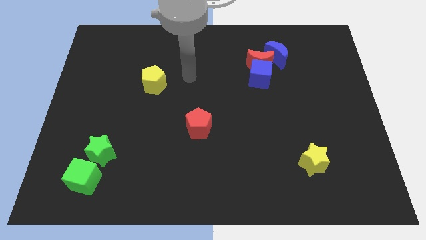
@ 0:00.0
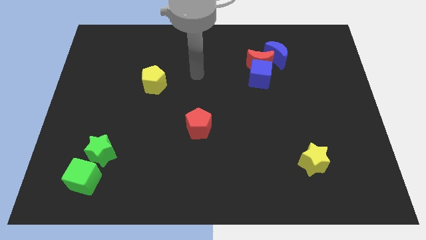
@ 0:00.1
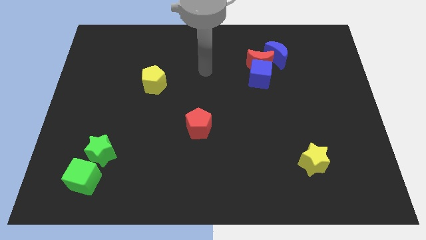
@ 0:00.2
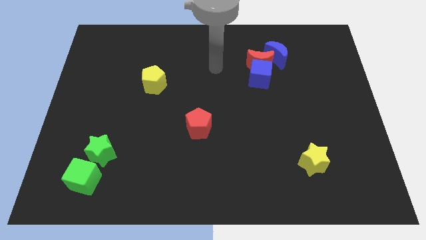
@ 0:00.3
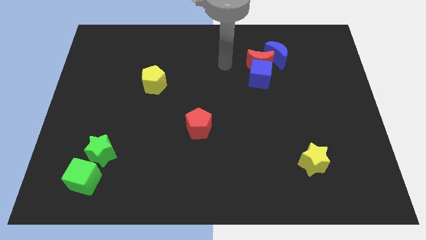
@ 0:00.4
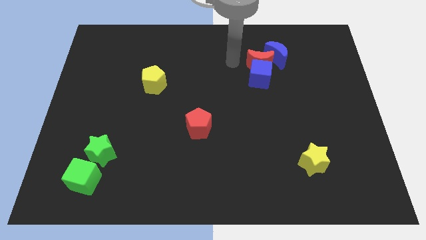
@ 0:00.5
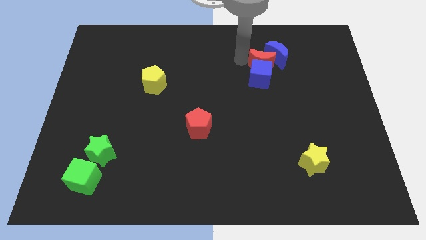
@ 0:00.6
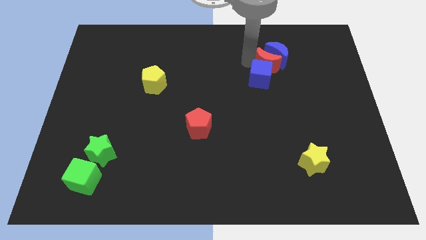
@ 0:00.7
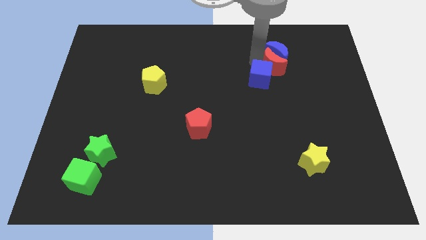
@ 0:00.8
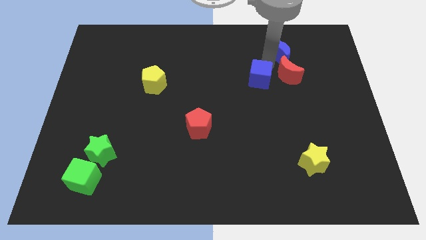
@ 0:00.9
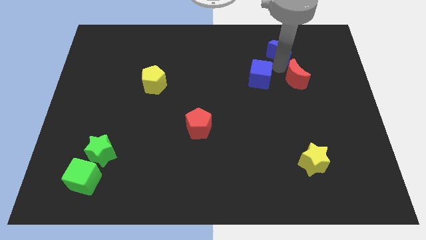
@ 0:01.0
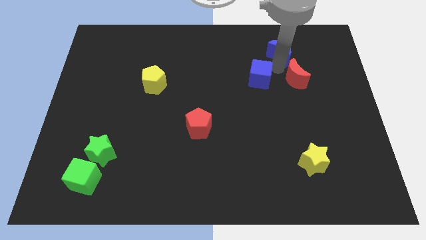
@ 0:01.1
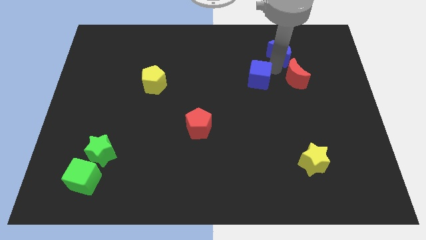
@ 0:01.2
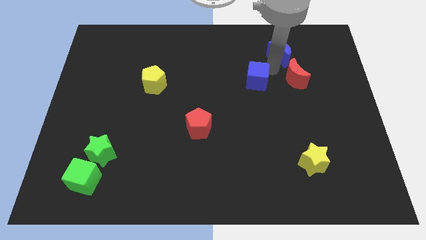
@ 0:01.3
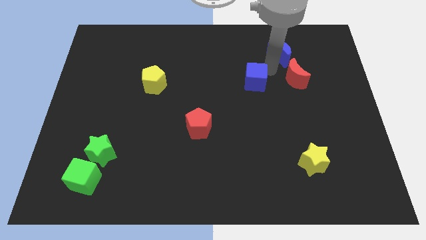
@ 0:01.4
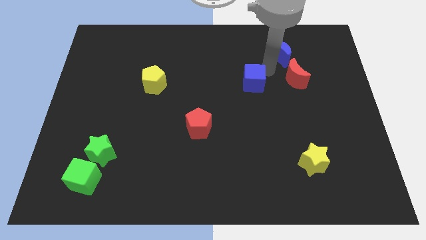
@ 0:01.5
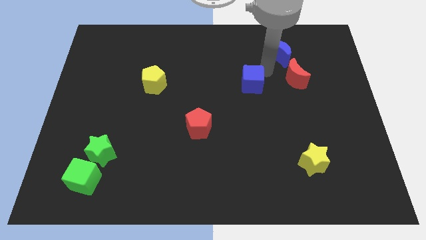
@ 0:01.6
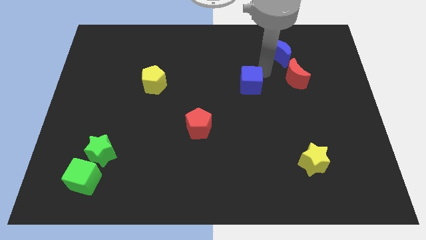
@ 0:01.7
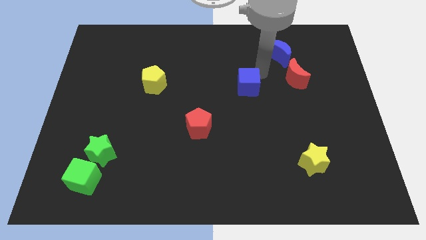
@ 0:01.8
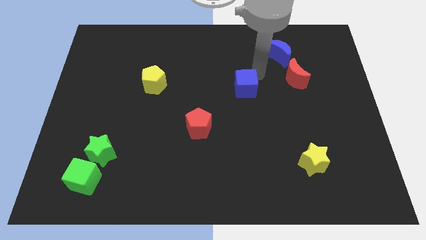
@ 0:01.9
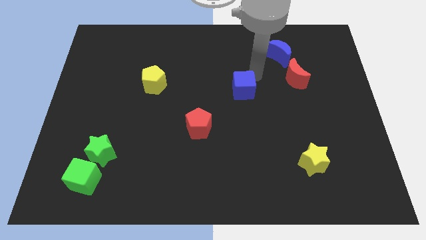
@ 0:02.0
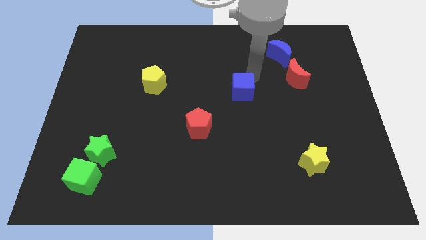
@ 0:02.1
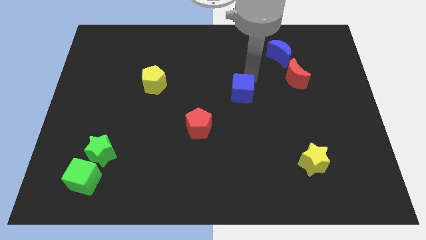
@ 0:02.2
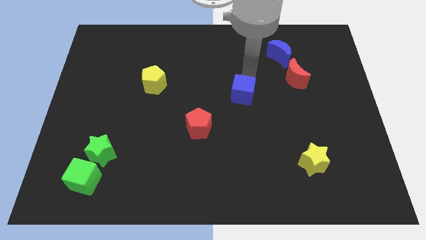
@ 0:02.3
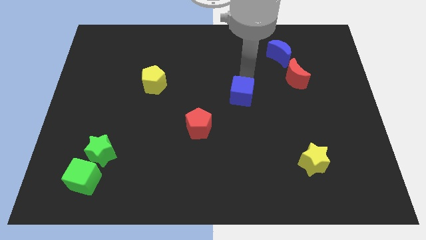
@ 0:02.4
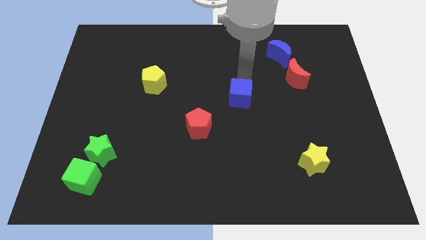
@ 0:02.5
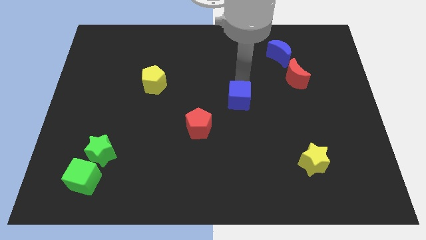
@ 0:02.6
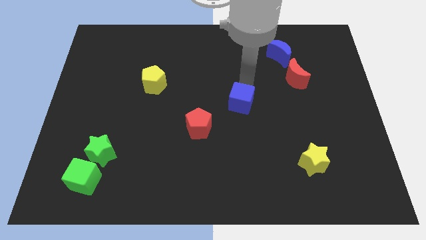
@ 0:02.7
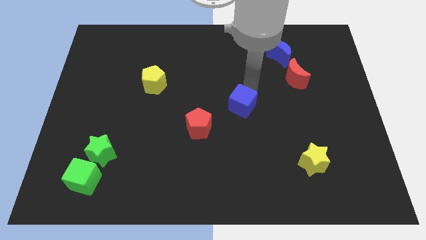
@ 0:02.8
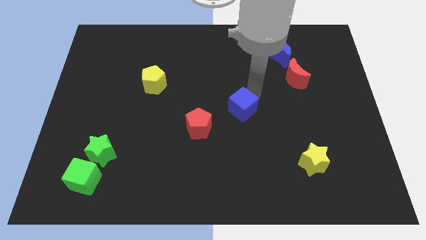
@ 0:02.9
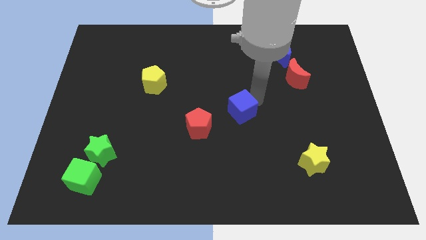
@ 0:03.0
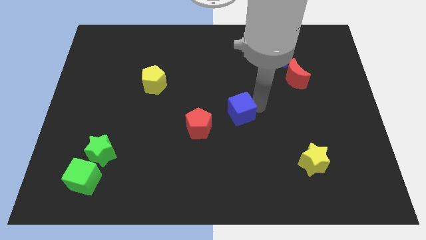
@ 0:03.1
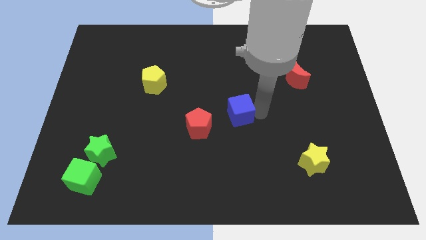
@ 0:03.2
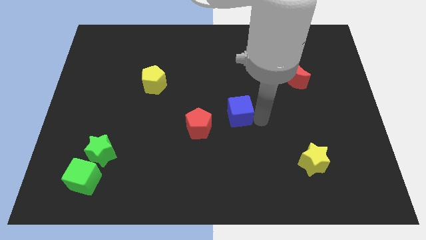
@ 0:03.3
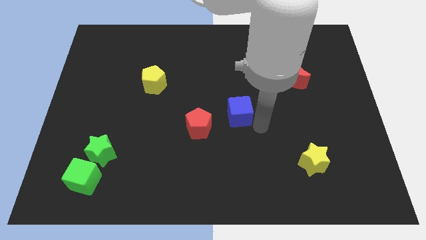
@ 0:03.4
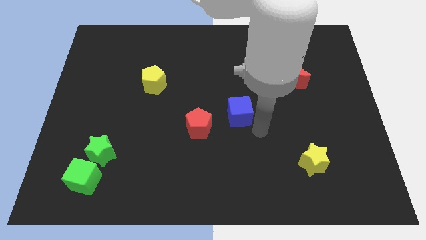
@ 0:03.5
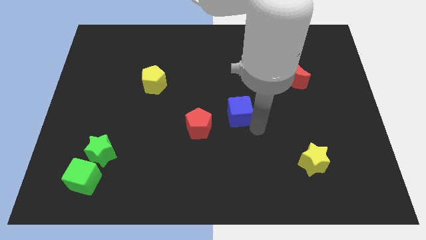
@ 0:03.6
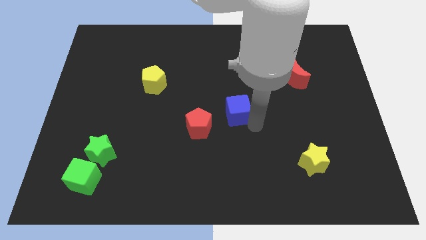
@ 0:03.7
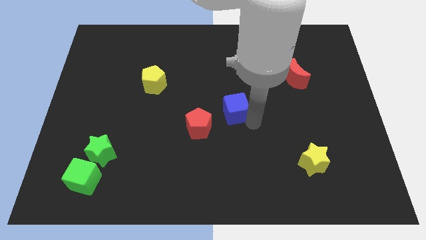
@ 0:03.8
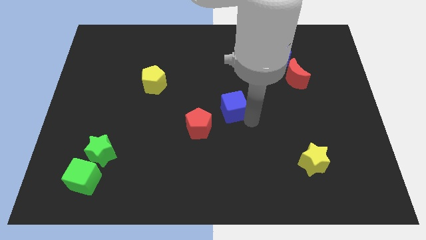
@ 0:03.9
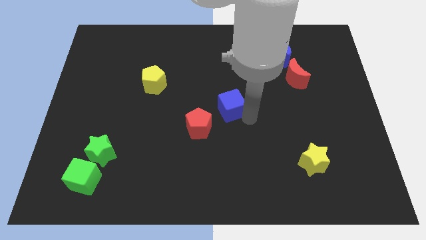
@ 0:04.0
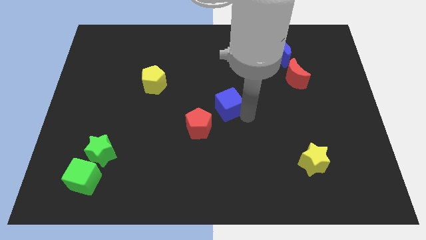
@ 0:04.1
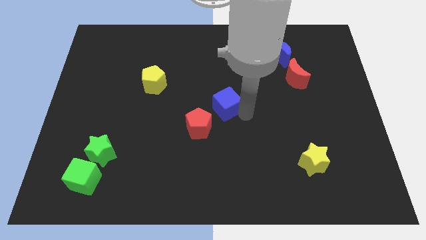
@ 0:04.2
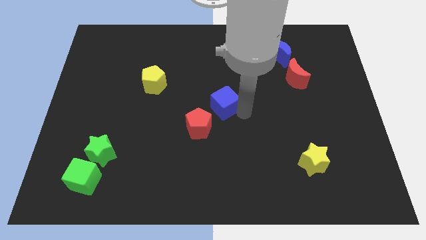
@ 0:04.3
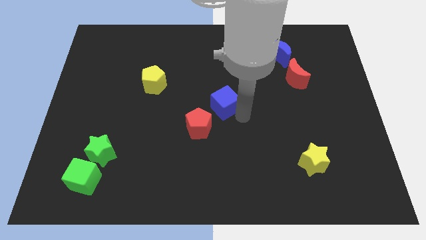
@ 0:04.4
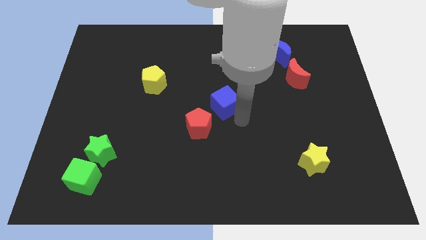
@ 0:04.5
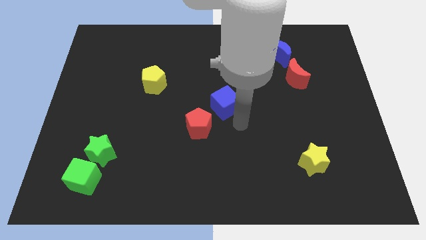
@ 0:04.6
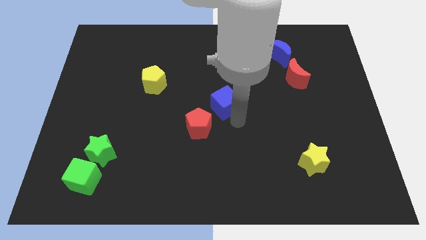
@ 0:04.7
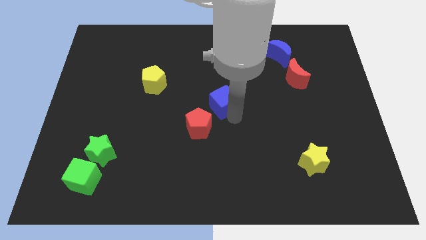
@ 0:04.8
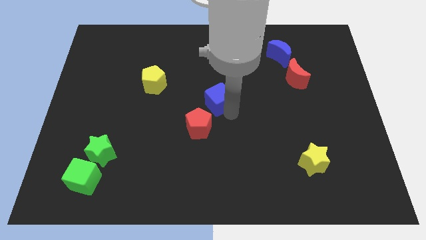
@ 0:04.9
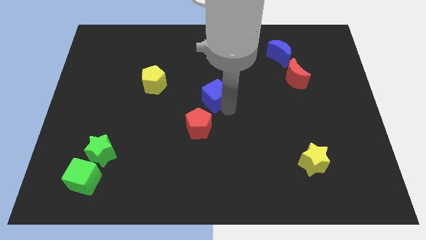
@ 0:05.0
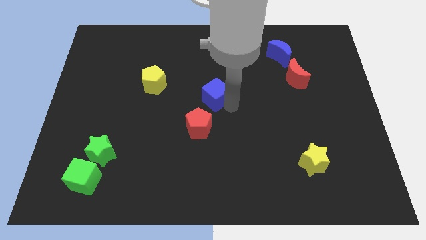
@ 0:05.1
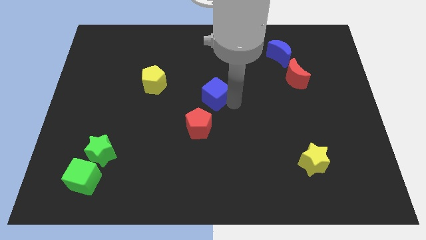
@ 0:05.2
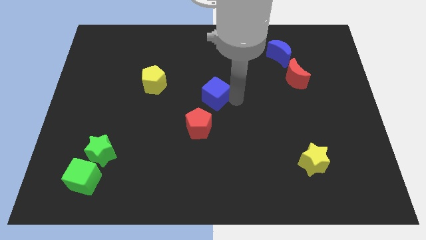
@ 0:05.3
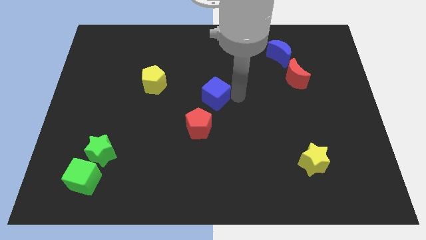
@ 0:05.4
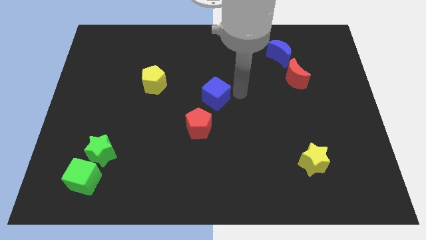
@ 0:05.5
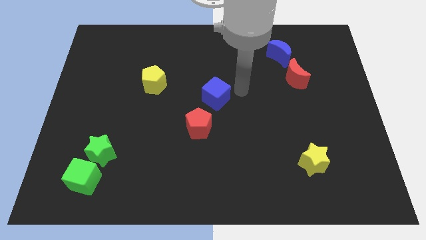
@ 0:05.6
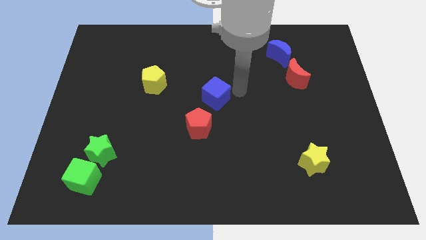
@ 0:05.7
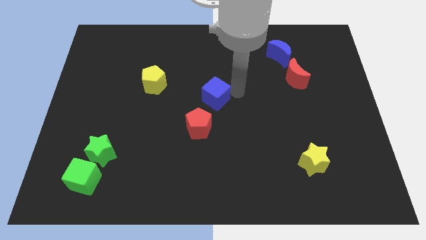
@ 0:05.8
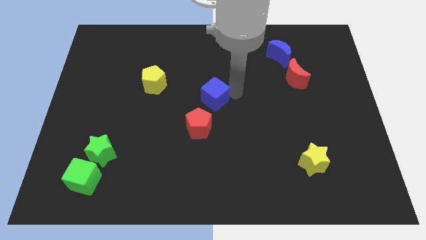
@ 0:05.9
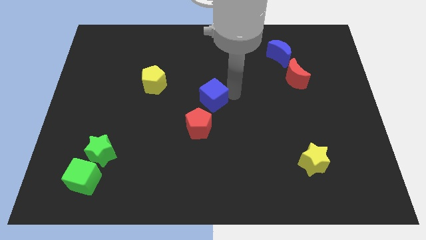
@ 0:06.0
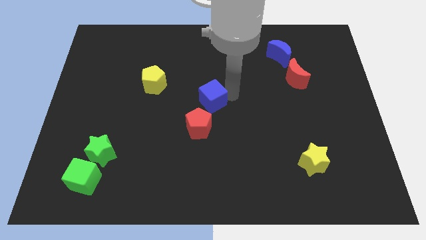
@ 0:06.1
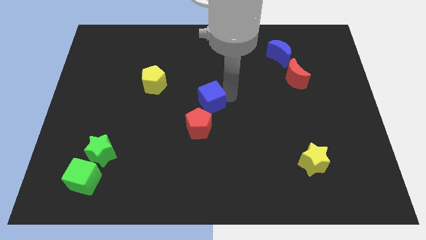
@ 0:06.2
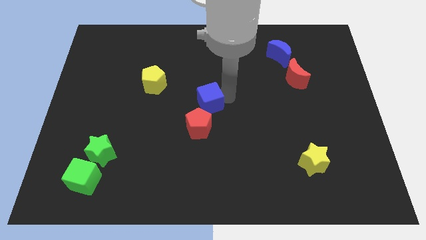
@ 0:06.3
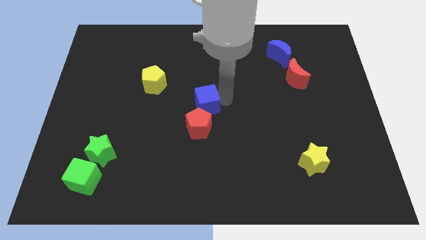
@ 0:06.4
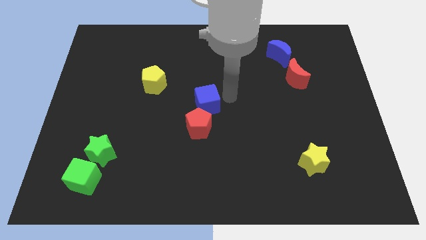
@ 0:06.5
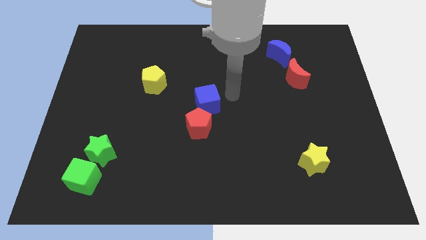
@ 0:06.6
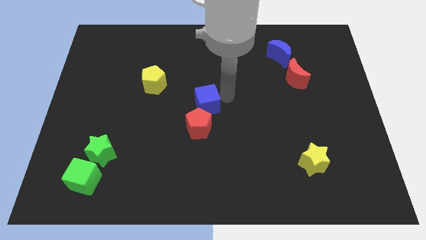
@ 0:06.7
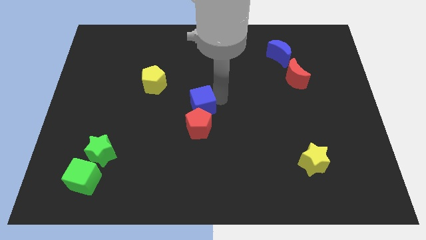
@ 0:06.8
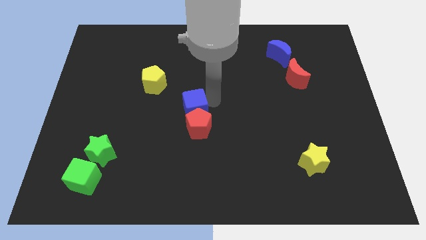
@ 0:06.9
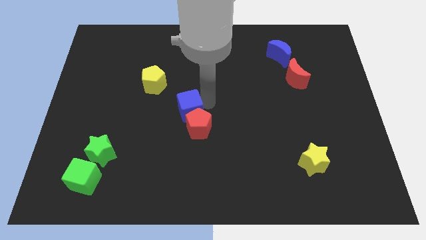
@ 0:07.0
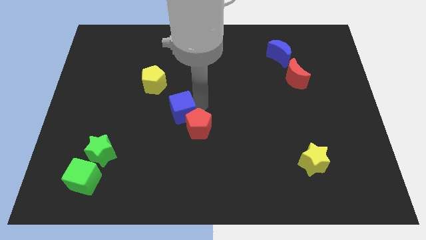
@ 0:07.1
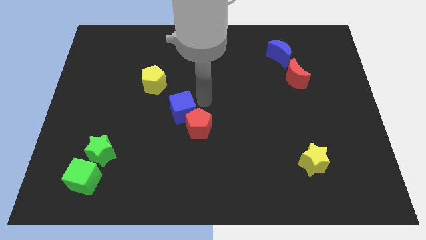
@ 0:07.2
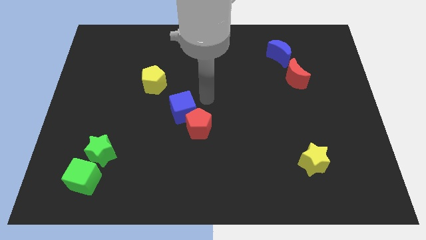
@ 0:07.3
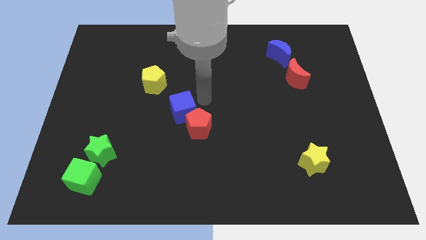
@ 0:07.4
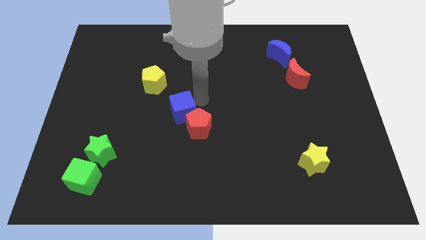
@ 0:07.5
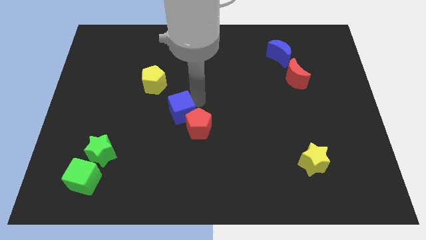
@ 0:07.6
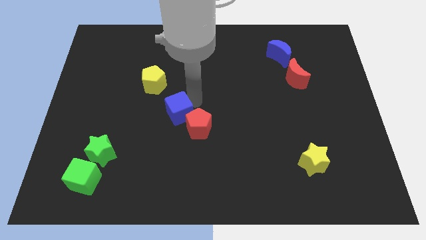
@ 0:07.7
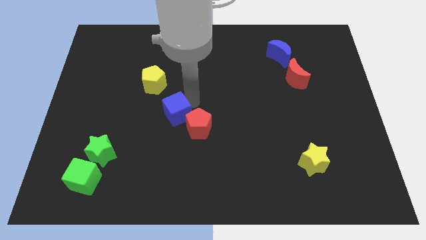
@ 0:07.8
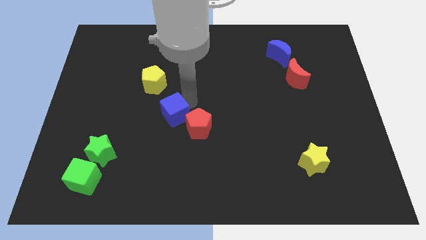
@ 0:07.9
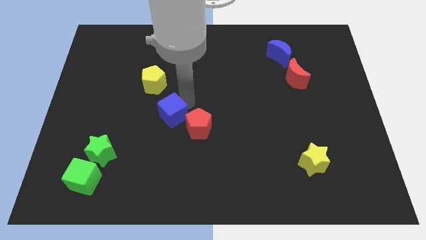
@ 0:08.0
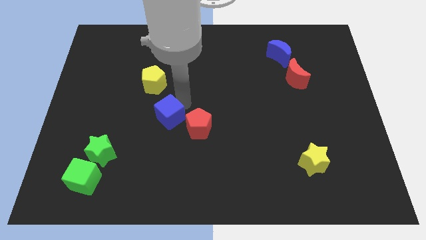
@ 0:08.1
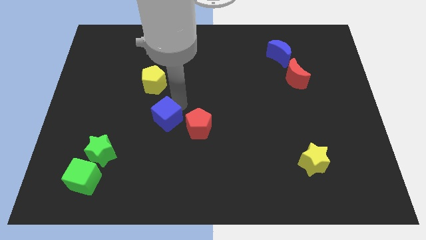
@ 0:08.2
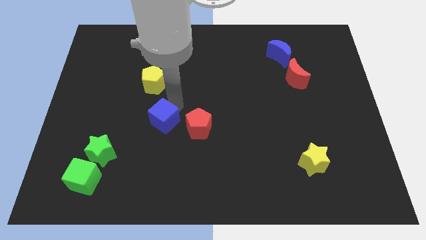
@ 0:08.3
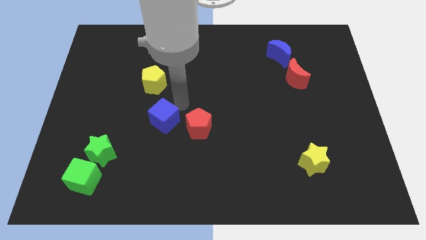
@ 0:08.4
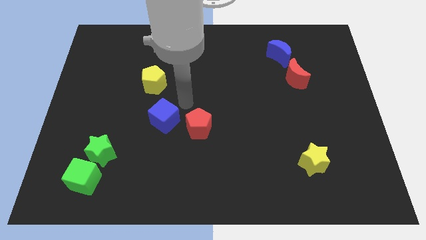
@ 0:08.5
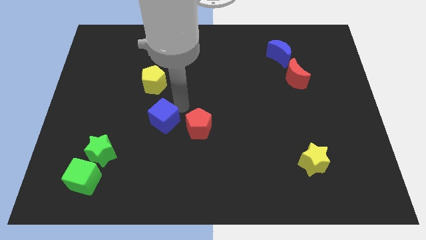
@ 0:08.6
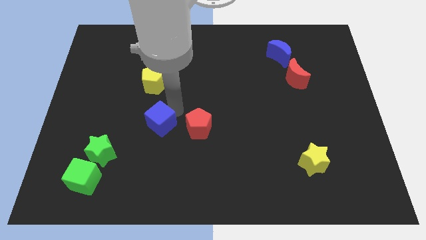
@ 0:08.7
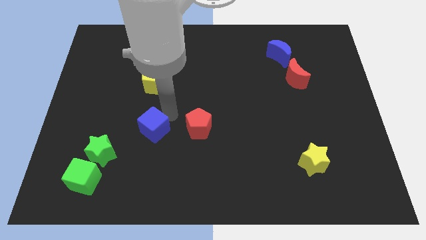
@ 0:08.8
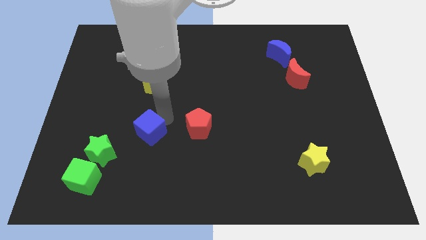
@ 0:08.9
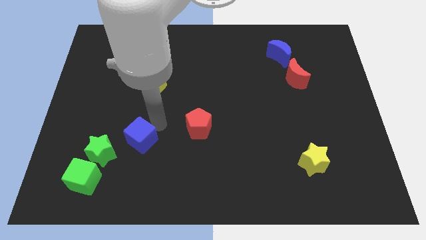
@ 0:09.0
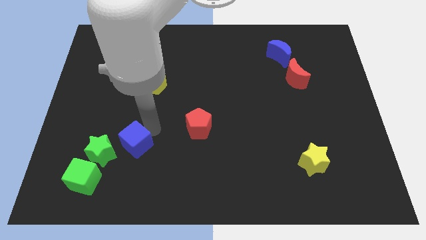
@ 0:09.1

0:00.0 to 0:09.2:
push the blue cube diagonally up and to the right of the green cube
